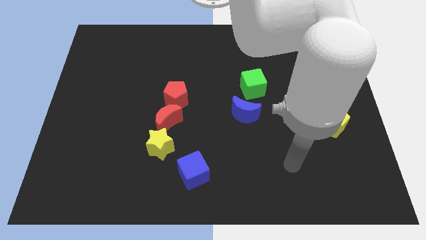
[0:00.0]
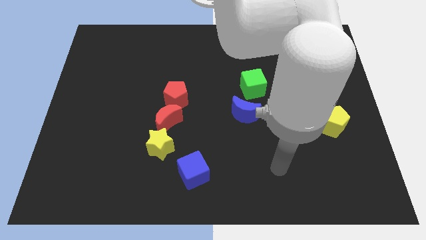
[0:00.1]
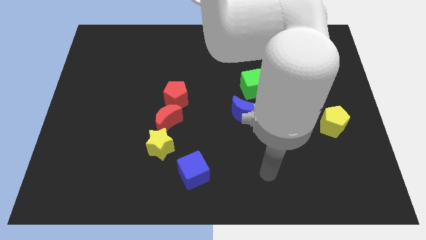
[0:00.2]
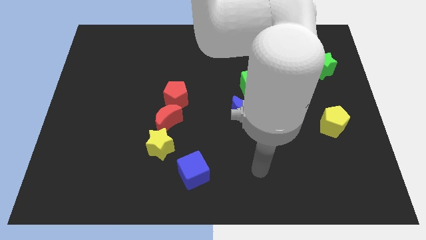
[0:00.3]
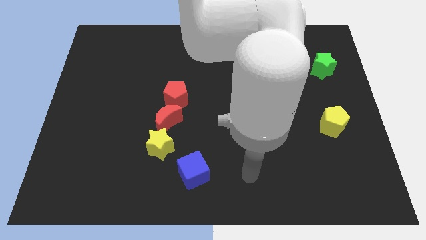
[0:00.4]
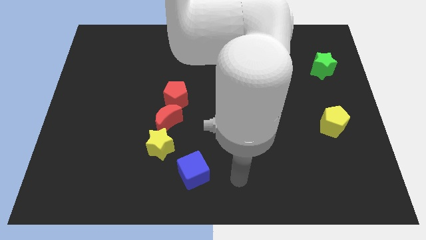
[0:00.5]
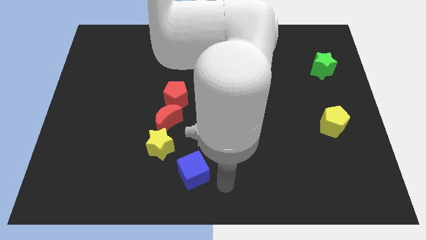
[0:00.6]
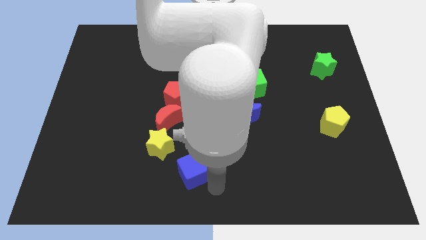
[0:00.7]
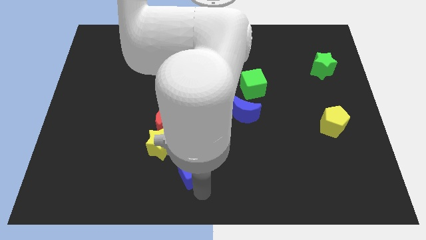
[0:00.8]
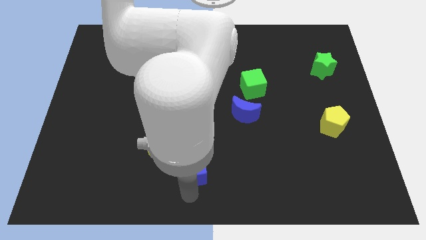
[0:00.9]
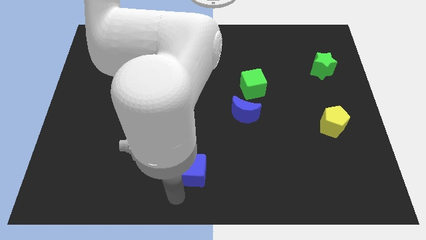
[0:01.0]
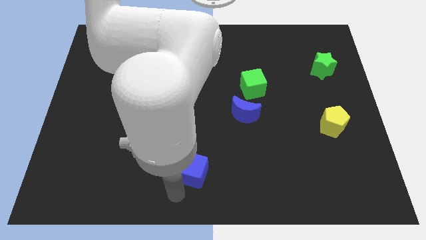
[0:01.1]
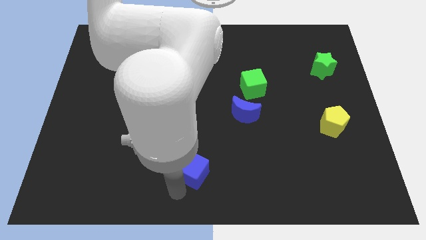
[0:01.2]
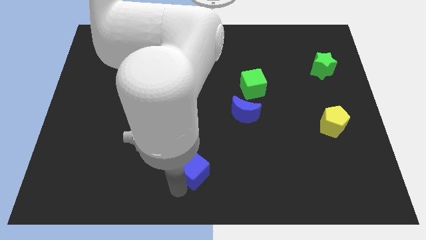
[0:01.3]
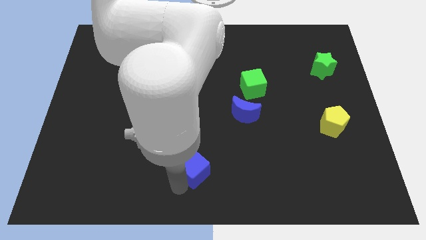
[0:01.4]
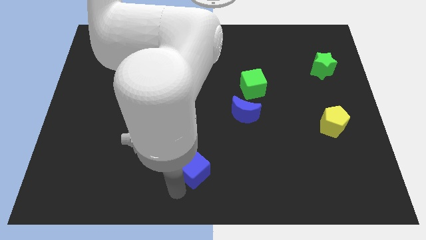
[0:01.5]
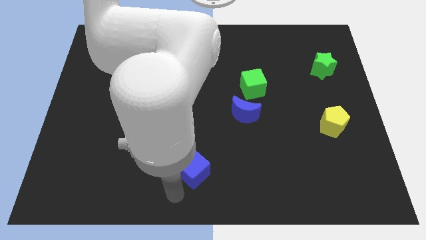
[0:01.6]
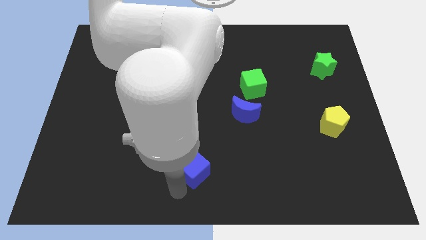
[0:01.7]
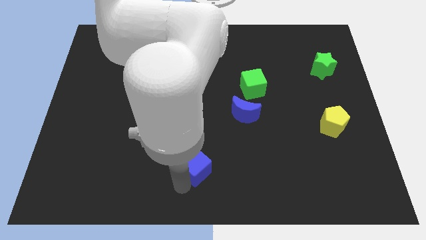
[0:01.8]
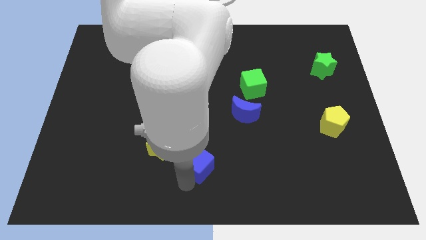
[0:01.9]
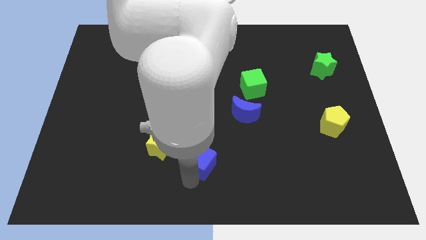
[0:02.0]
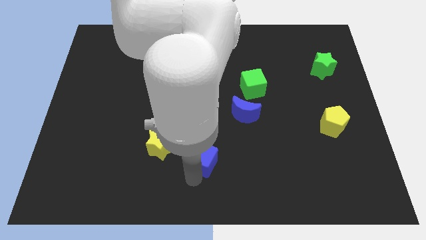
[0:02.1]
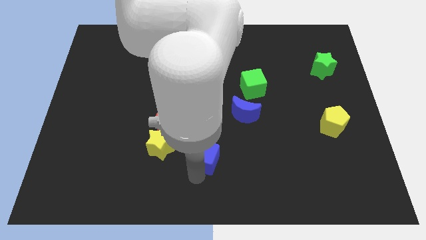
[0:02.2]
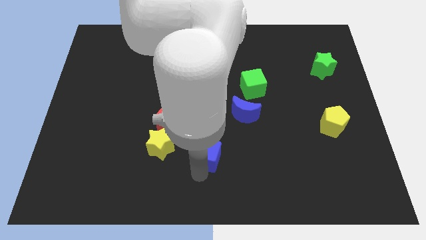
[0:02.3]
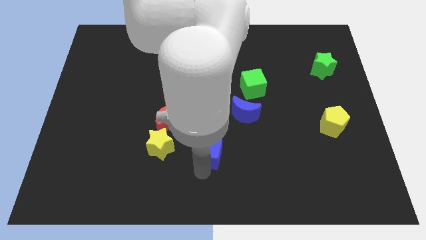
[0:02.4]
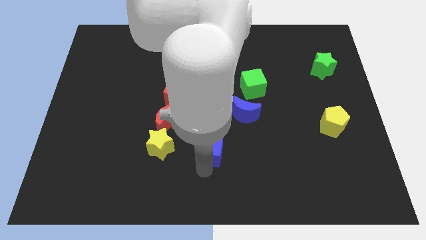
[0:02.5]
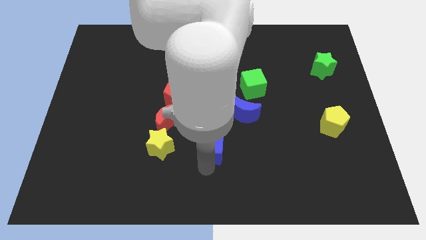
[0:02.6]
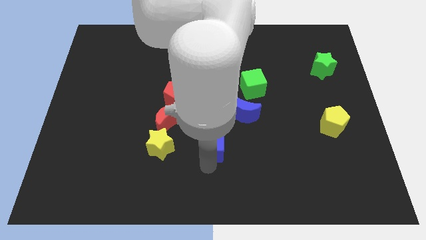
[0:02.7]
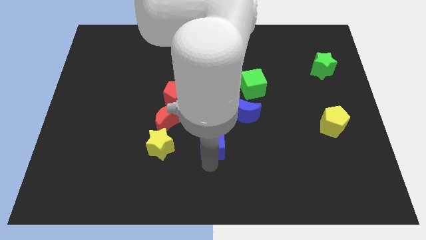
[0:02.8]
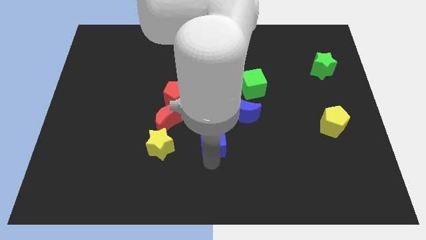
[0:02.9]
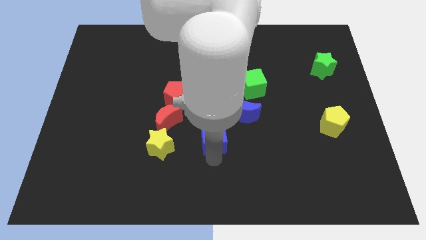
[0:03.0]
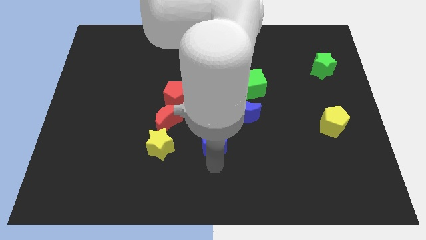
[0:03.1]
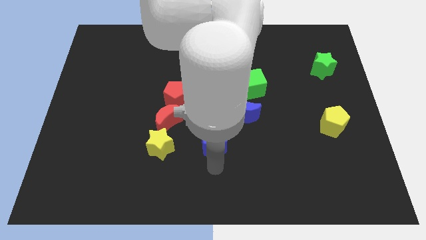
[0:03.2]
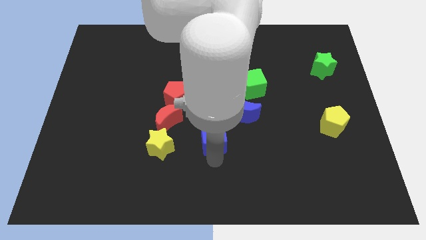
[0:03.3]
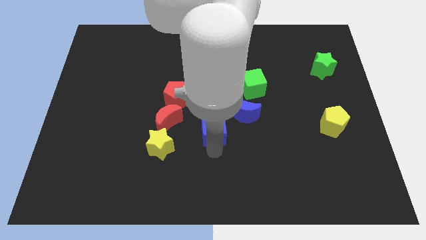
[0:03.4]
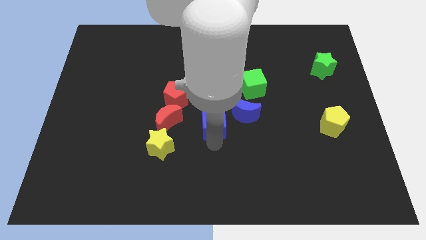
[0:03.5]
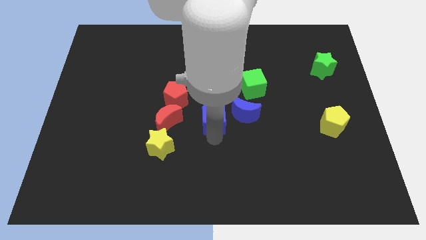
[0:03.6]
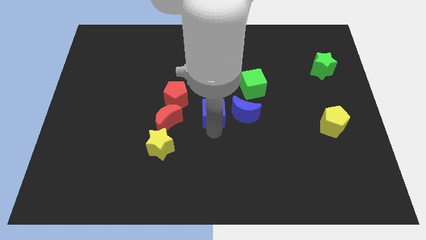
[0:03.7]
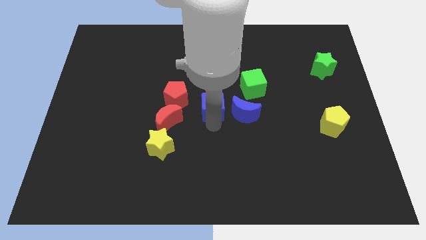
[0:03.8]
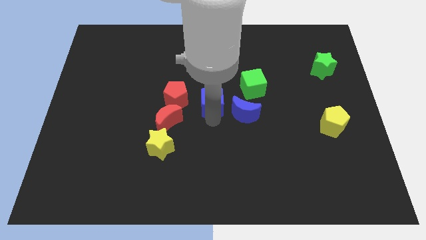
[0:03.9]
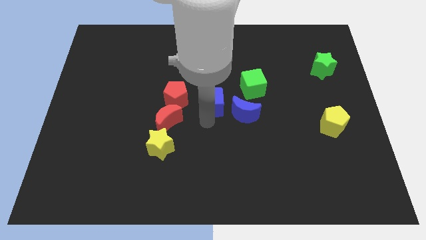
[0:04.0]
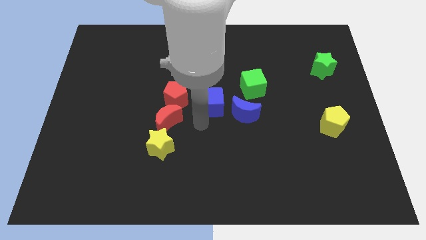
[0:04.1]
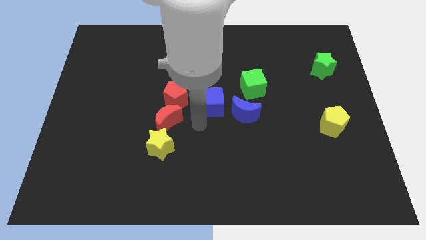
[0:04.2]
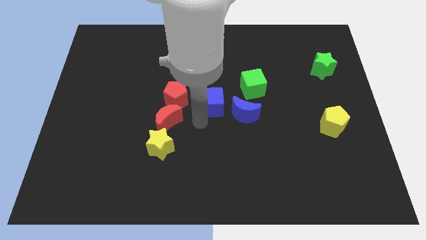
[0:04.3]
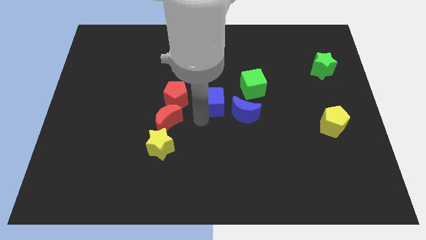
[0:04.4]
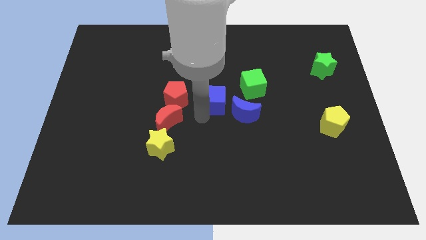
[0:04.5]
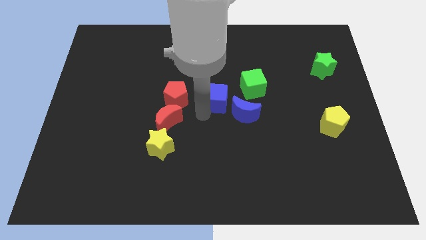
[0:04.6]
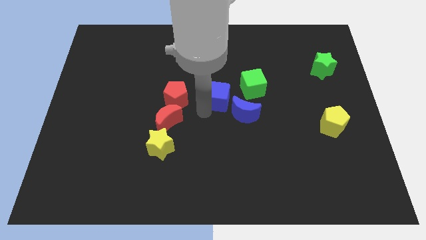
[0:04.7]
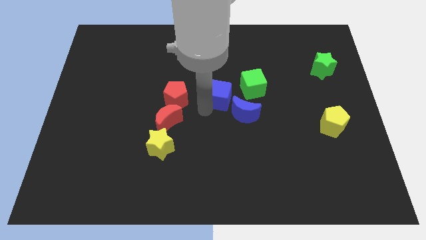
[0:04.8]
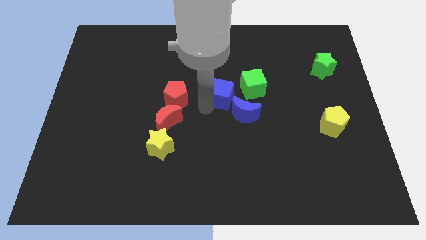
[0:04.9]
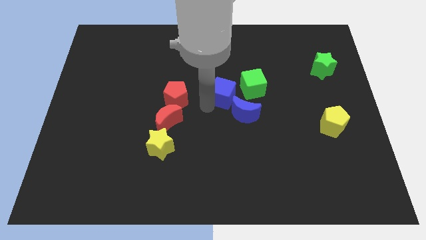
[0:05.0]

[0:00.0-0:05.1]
push the blue cube above the blue moon

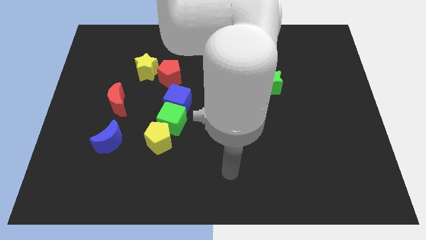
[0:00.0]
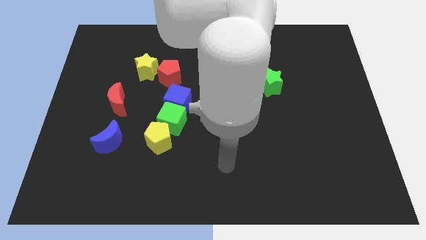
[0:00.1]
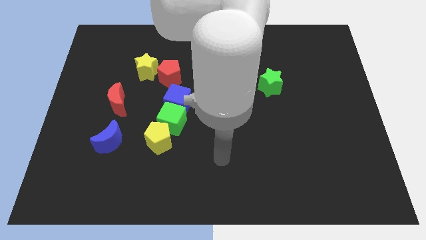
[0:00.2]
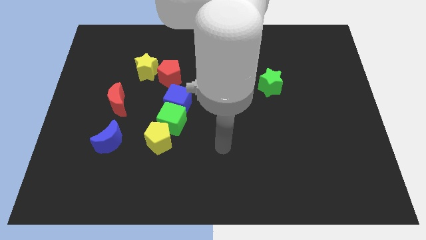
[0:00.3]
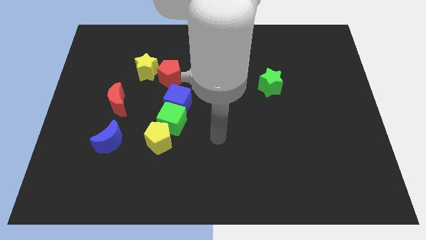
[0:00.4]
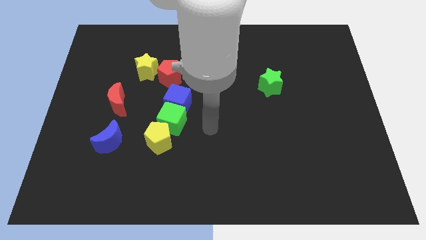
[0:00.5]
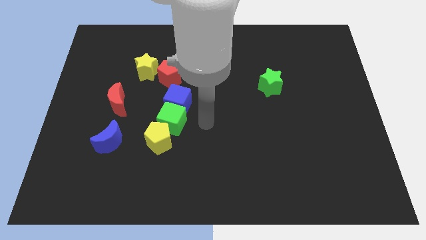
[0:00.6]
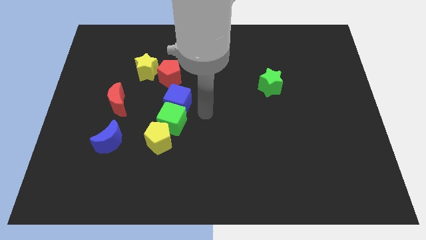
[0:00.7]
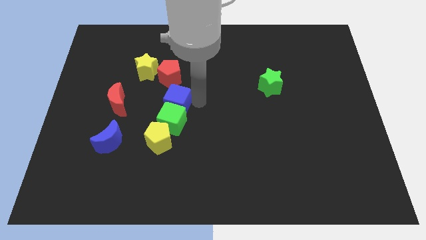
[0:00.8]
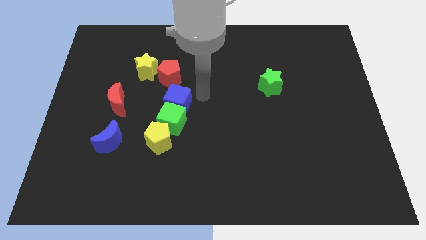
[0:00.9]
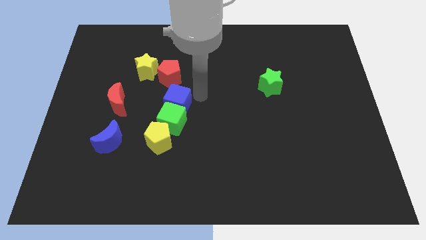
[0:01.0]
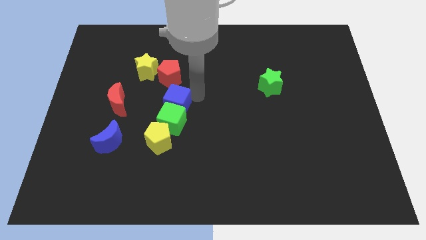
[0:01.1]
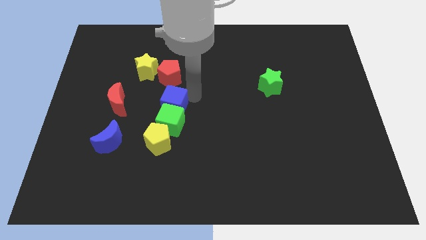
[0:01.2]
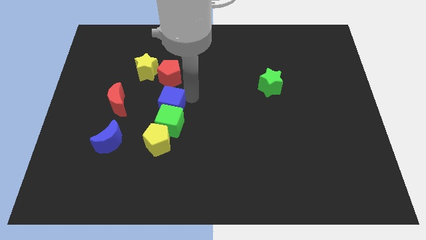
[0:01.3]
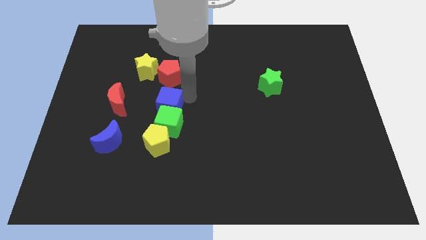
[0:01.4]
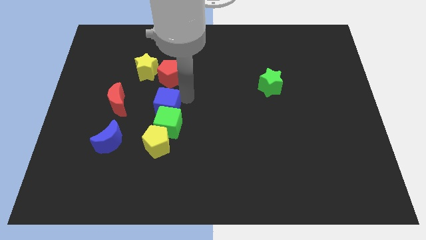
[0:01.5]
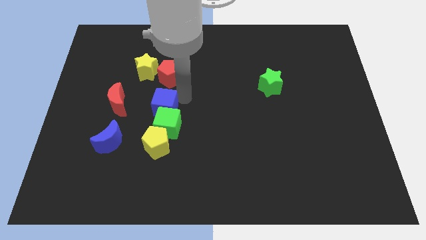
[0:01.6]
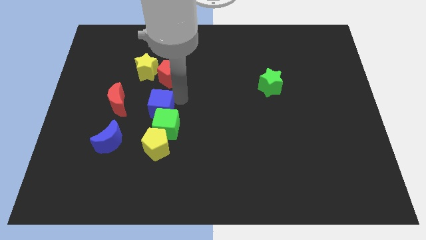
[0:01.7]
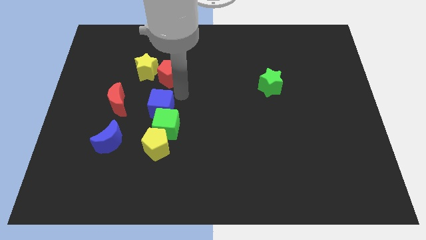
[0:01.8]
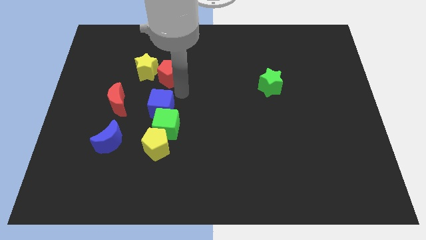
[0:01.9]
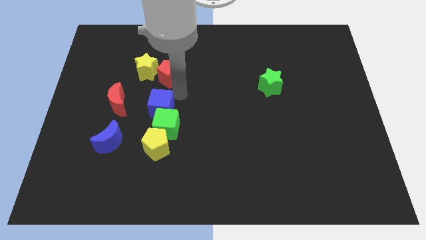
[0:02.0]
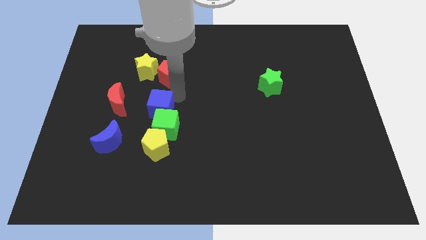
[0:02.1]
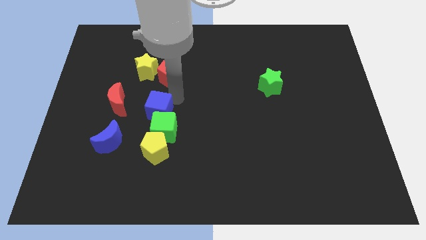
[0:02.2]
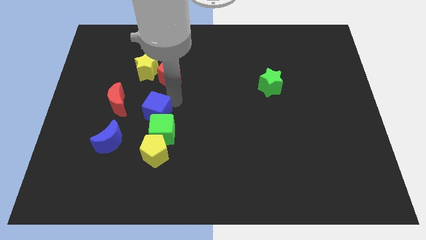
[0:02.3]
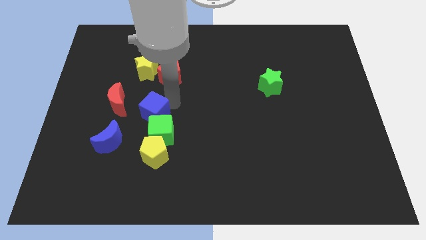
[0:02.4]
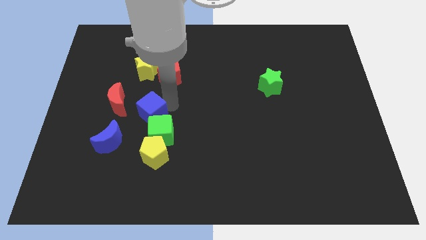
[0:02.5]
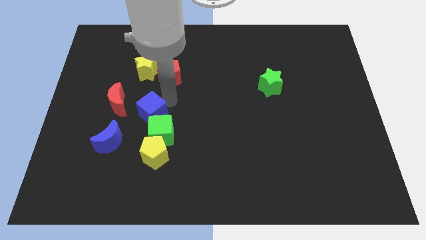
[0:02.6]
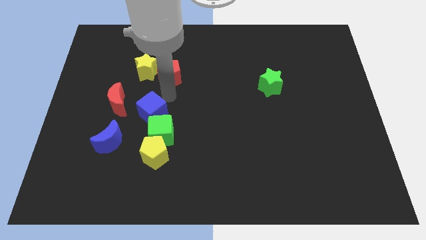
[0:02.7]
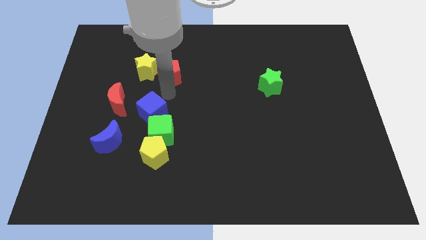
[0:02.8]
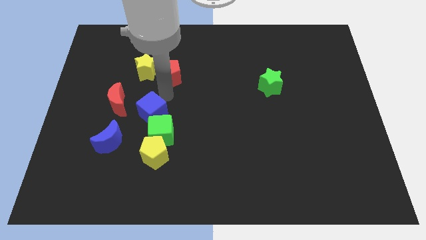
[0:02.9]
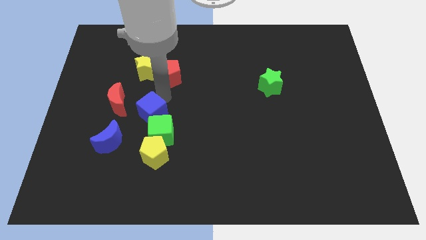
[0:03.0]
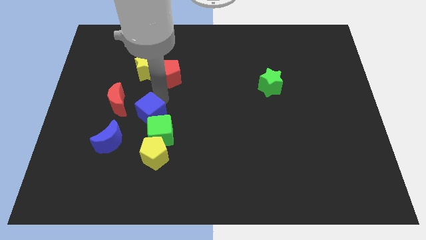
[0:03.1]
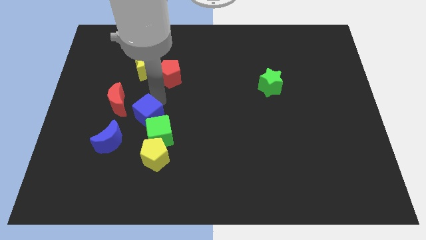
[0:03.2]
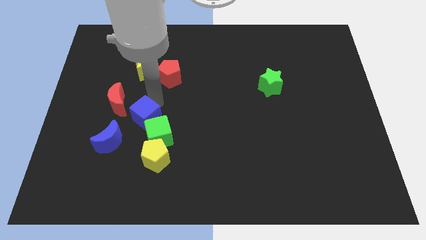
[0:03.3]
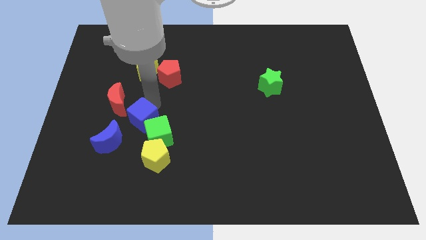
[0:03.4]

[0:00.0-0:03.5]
push the blue cube diagonally up and to the left of the yellow pentagon
